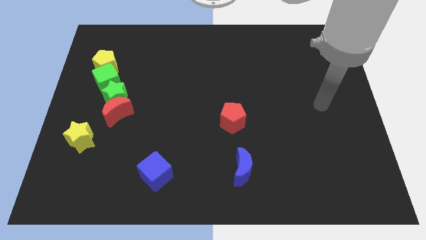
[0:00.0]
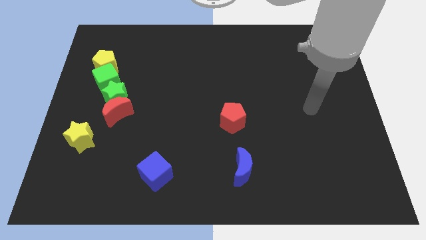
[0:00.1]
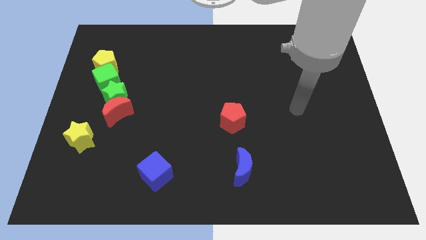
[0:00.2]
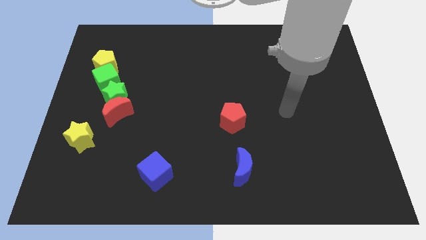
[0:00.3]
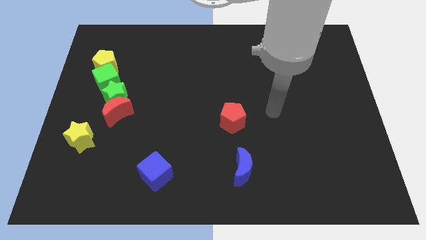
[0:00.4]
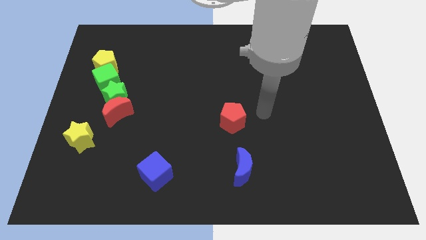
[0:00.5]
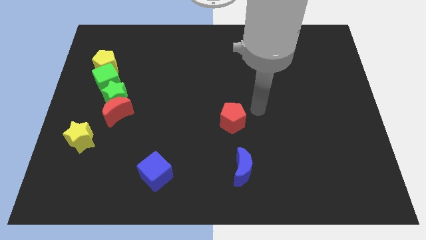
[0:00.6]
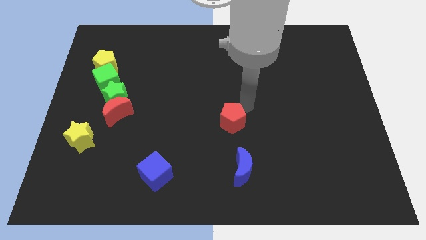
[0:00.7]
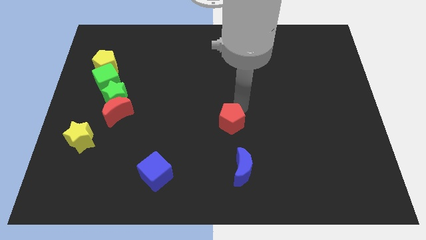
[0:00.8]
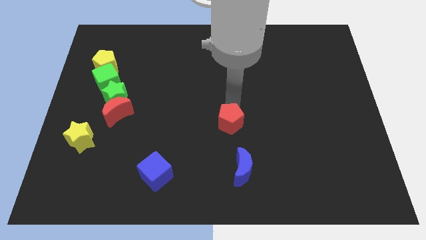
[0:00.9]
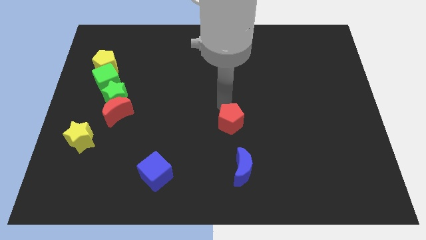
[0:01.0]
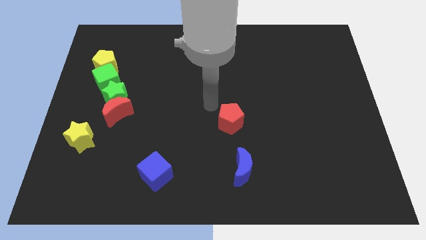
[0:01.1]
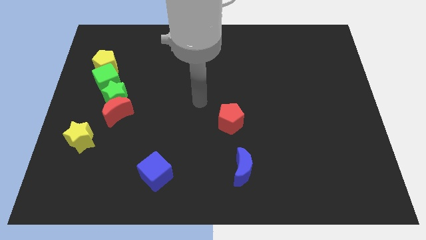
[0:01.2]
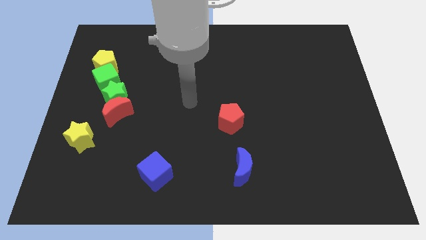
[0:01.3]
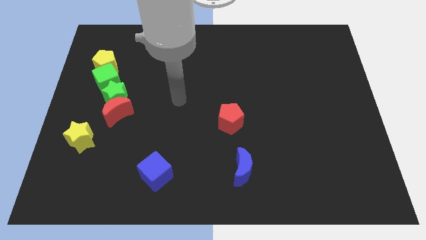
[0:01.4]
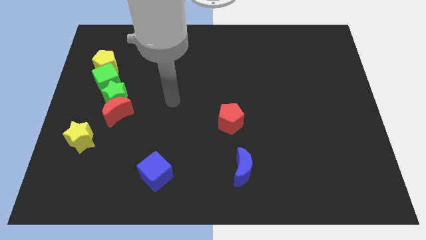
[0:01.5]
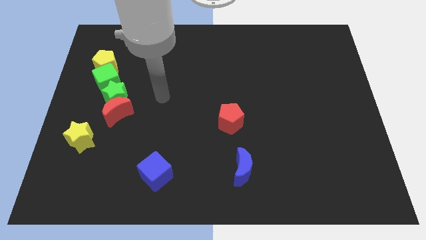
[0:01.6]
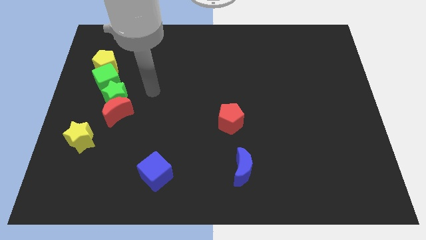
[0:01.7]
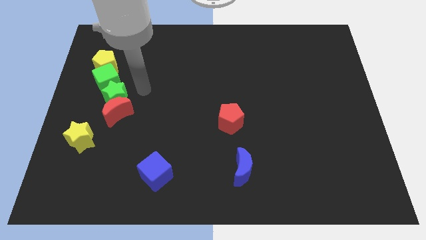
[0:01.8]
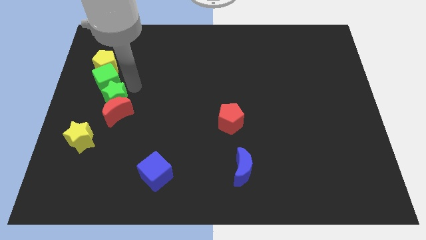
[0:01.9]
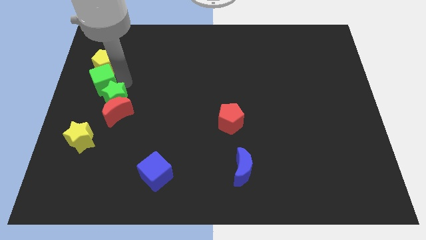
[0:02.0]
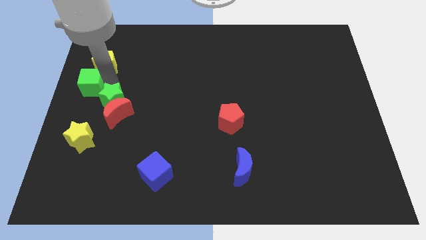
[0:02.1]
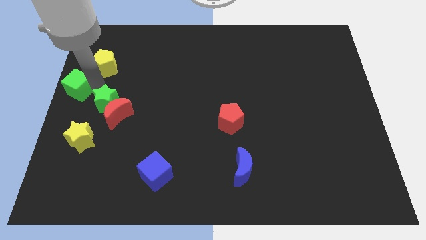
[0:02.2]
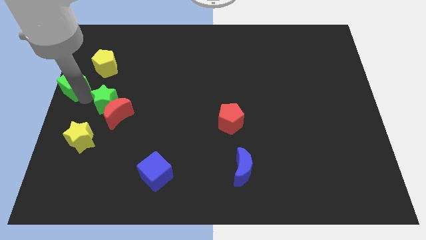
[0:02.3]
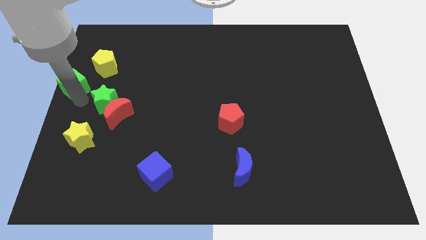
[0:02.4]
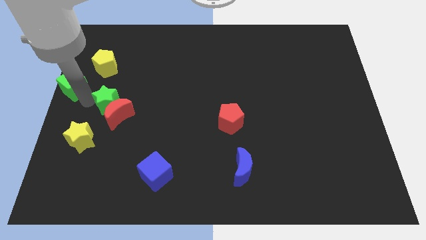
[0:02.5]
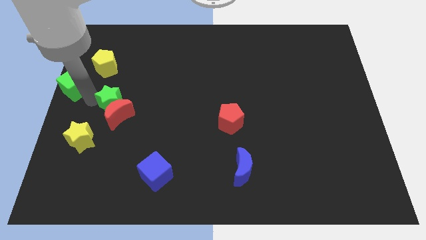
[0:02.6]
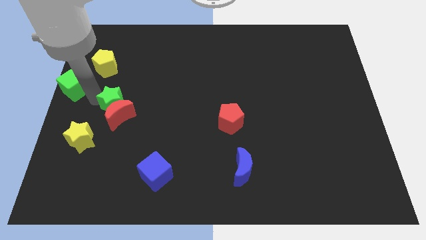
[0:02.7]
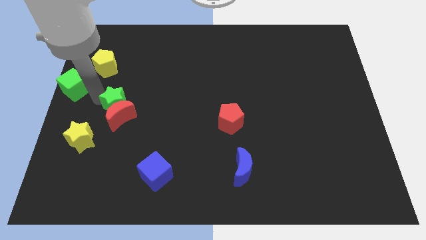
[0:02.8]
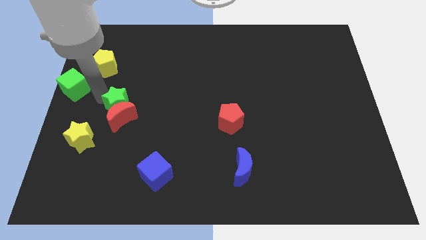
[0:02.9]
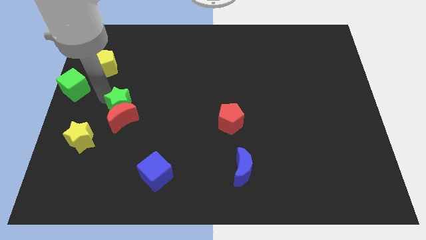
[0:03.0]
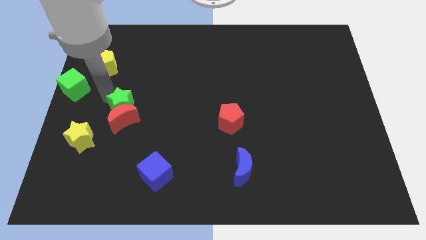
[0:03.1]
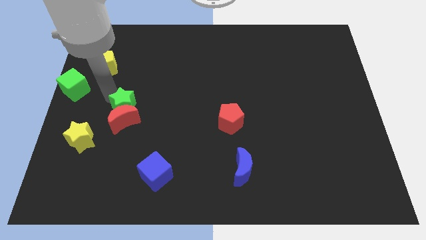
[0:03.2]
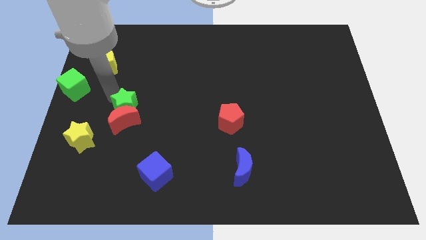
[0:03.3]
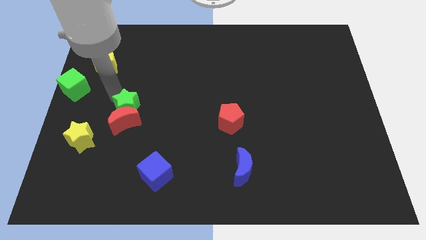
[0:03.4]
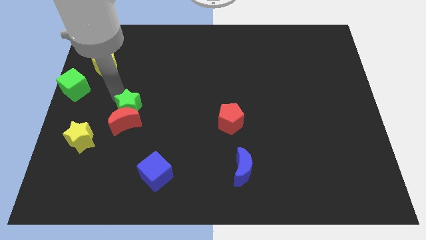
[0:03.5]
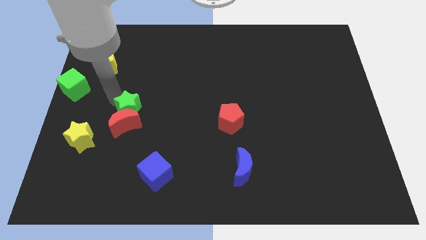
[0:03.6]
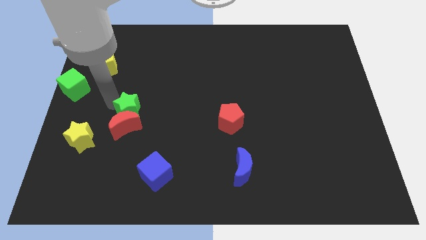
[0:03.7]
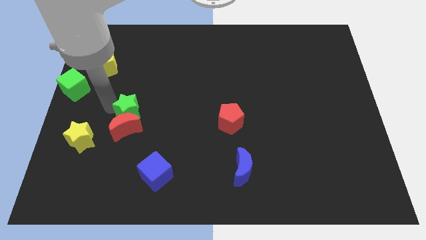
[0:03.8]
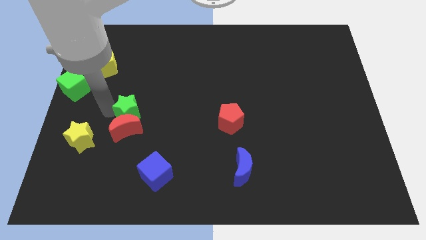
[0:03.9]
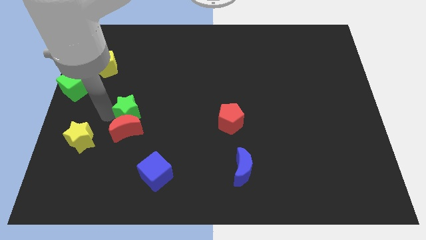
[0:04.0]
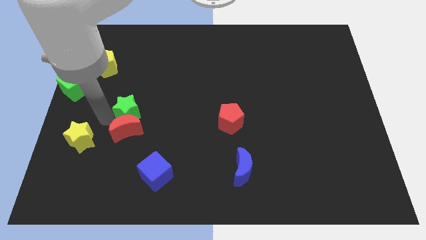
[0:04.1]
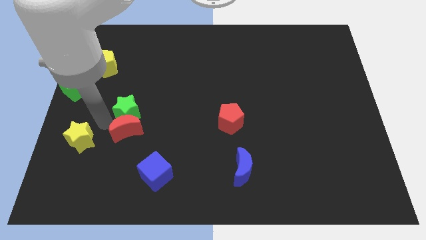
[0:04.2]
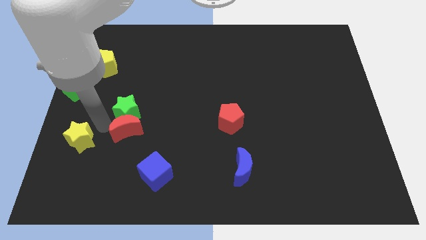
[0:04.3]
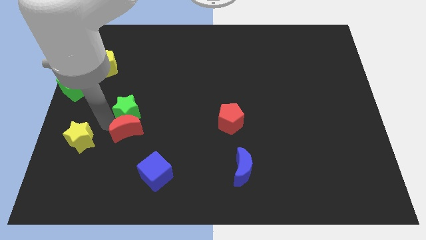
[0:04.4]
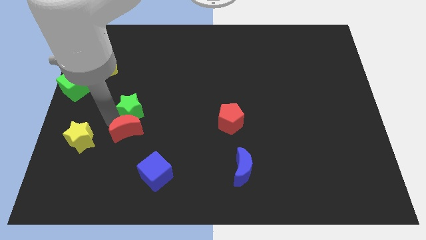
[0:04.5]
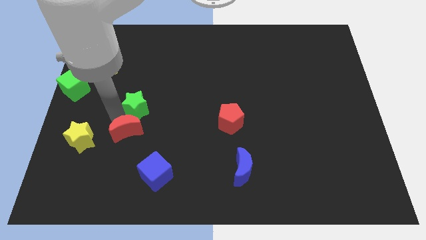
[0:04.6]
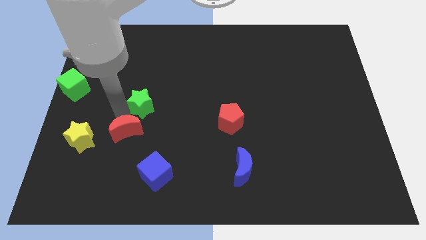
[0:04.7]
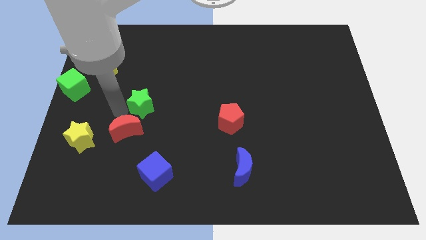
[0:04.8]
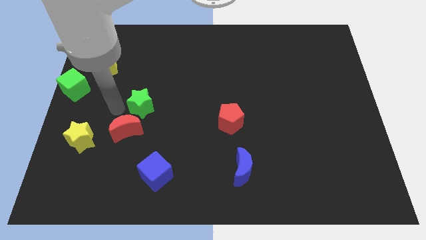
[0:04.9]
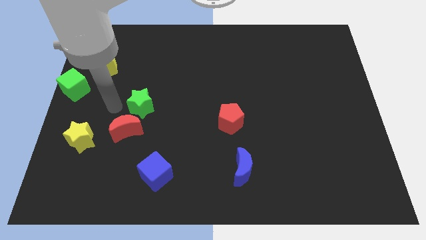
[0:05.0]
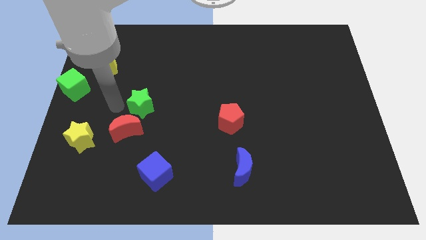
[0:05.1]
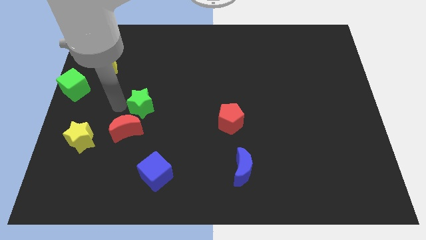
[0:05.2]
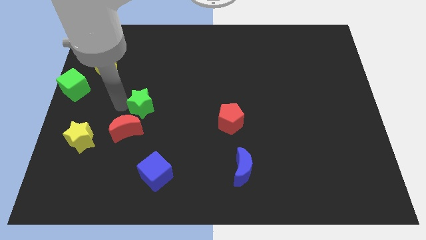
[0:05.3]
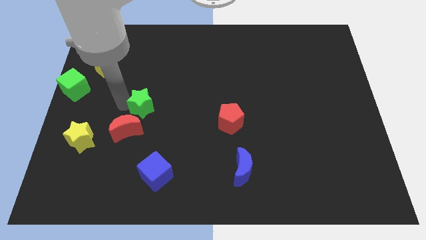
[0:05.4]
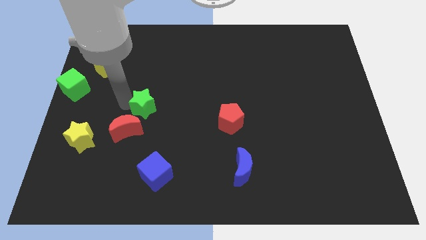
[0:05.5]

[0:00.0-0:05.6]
separate the green star from the red moon and green cube

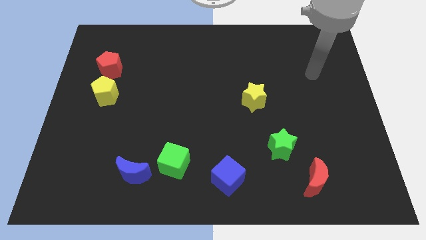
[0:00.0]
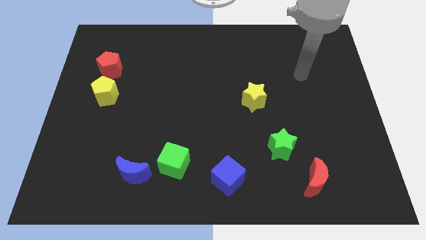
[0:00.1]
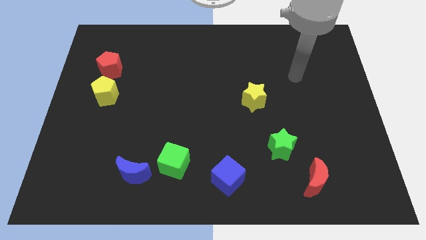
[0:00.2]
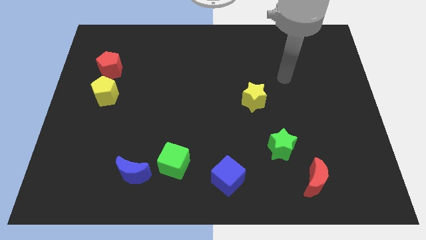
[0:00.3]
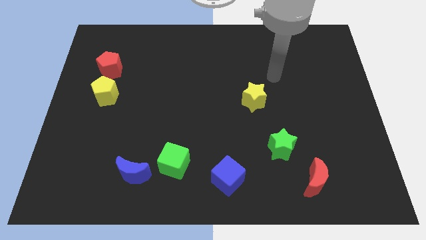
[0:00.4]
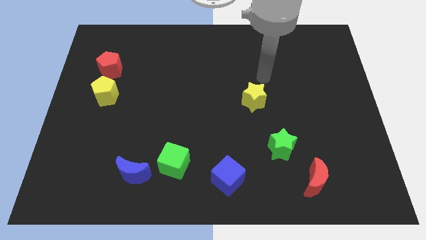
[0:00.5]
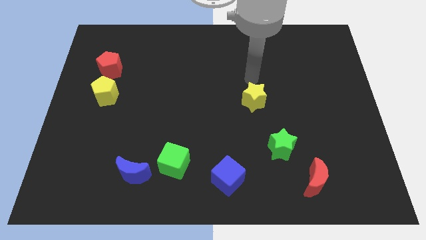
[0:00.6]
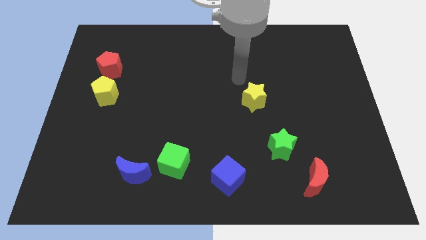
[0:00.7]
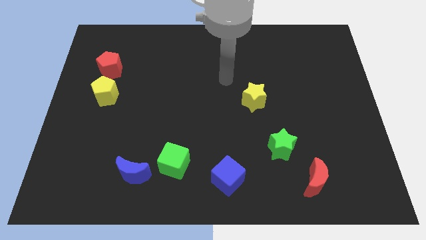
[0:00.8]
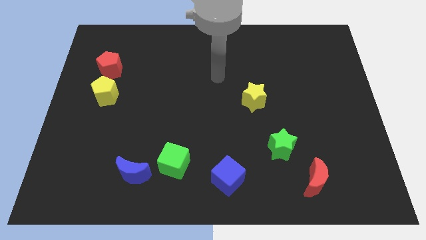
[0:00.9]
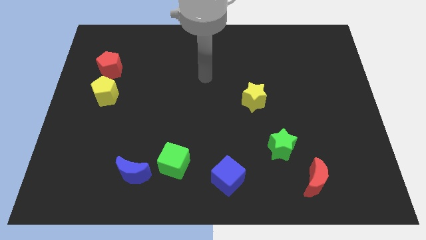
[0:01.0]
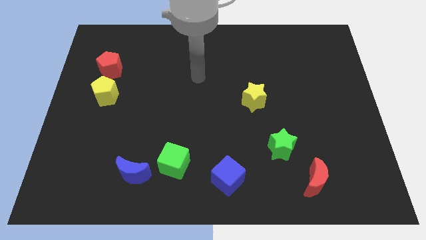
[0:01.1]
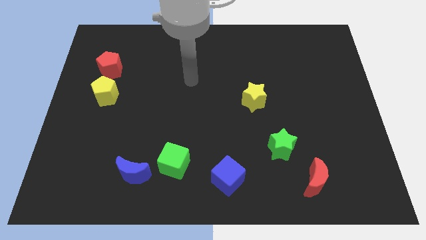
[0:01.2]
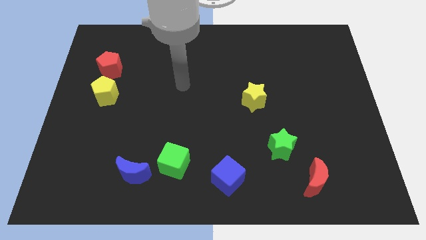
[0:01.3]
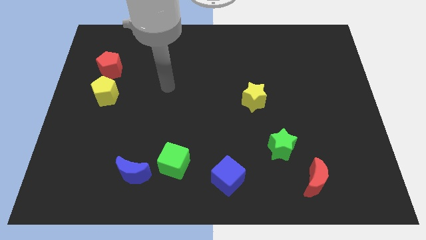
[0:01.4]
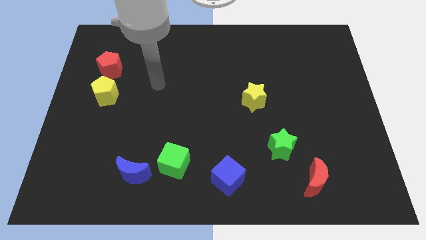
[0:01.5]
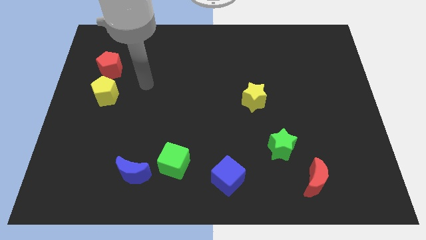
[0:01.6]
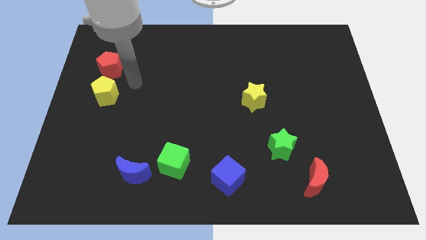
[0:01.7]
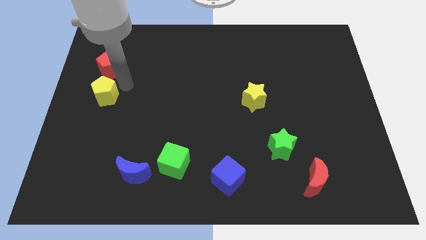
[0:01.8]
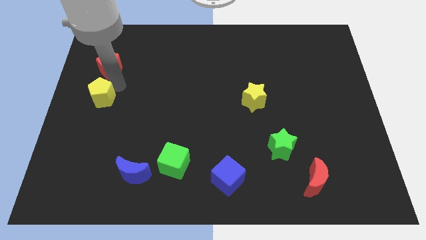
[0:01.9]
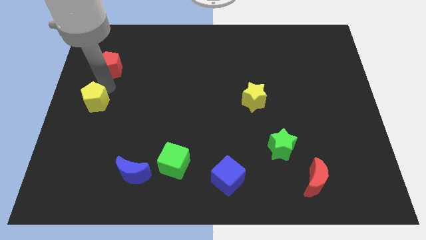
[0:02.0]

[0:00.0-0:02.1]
separate the red pentagon from the yellow pentagon

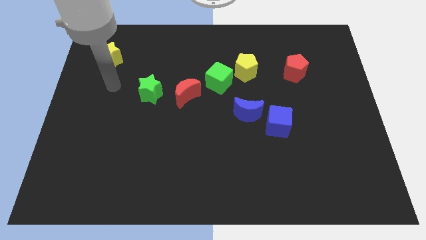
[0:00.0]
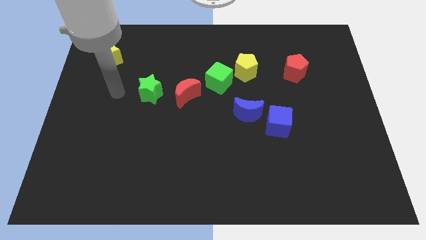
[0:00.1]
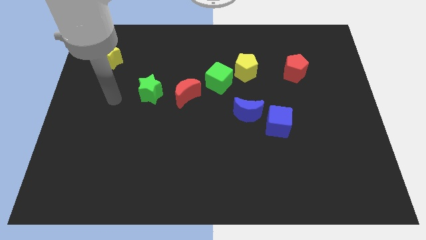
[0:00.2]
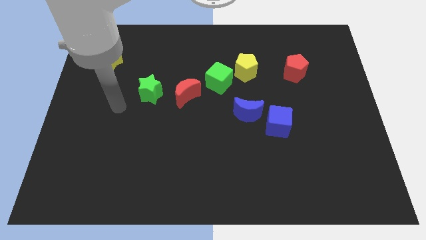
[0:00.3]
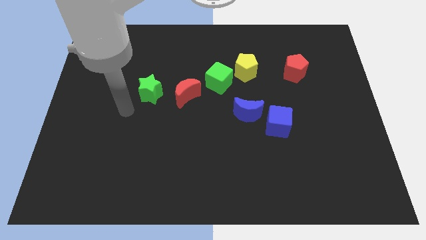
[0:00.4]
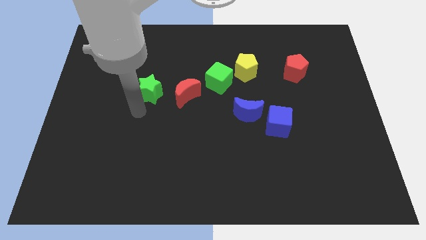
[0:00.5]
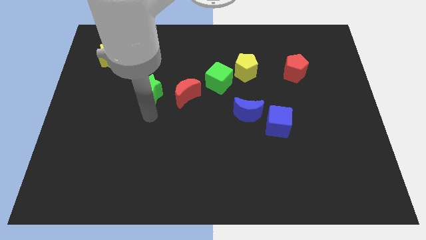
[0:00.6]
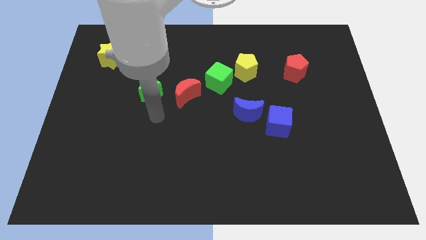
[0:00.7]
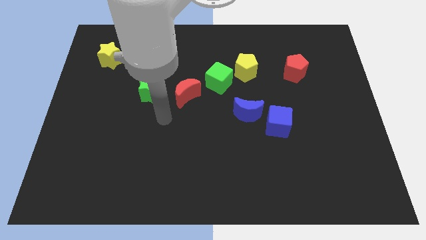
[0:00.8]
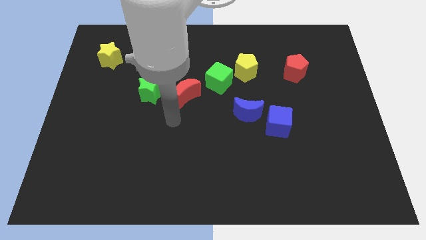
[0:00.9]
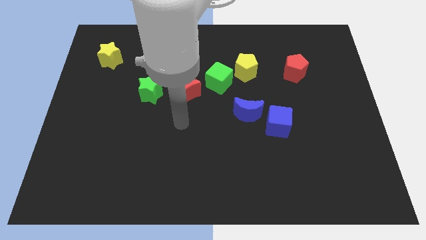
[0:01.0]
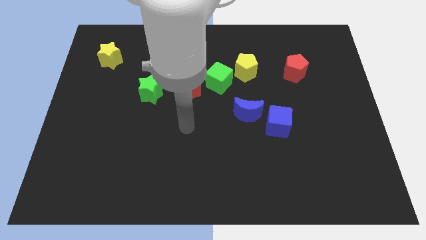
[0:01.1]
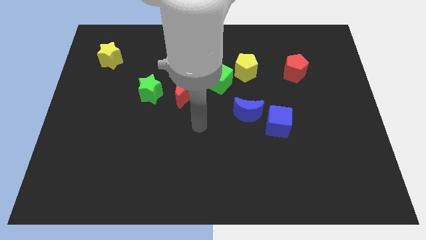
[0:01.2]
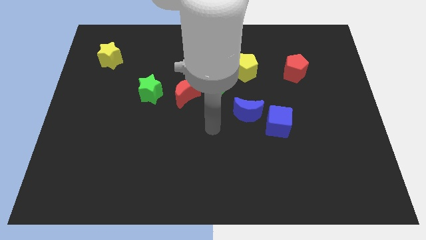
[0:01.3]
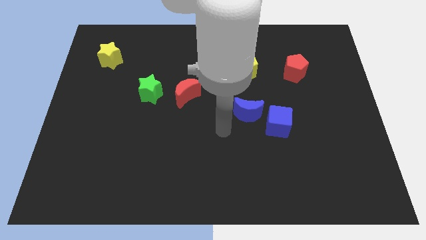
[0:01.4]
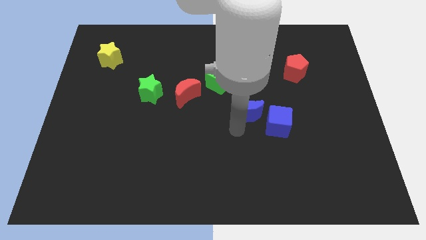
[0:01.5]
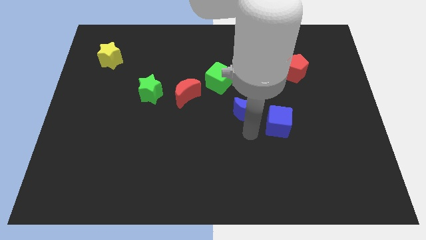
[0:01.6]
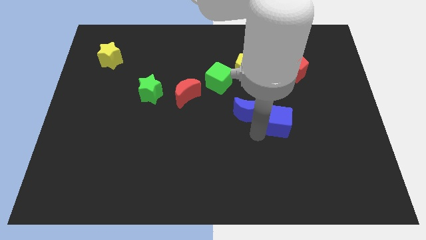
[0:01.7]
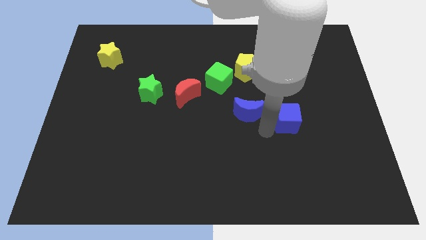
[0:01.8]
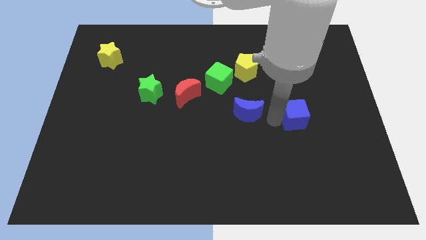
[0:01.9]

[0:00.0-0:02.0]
move the blue moon away from the blue cube
